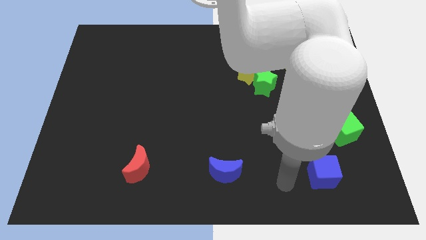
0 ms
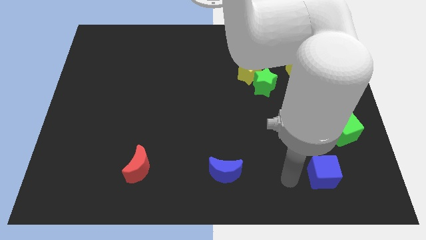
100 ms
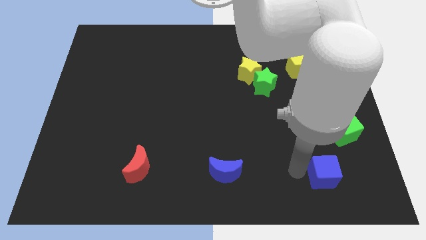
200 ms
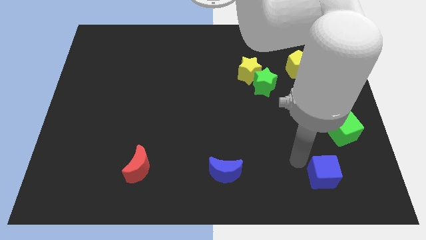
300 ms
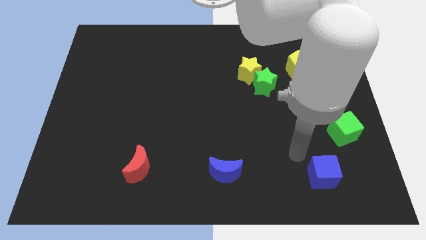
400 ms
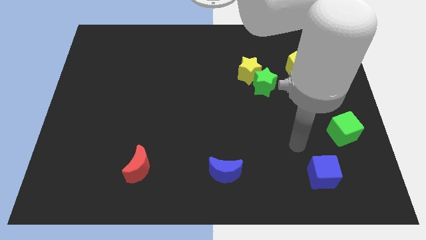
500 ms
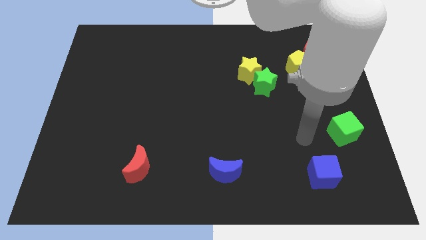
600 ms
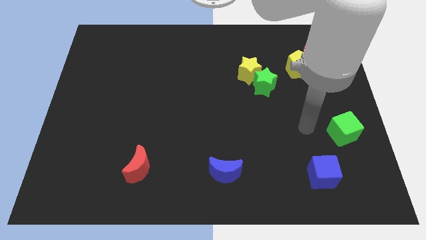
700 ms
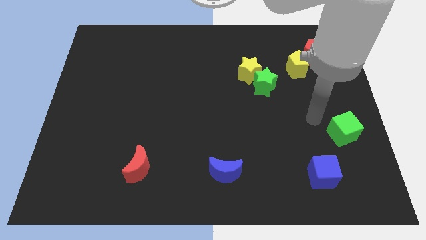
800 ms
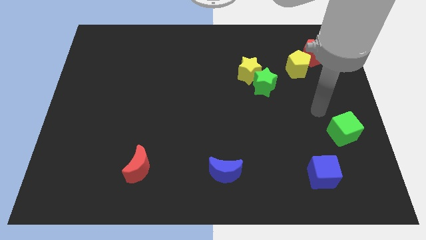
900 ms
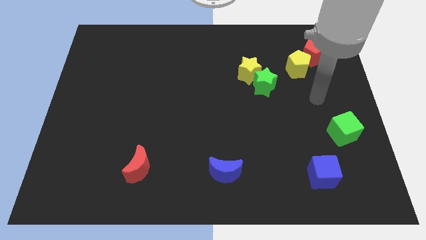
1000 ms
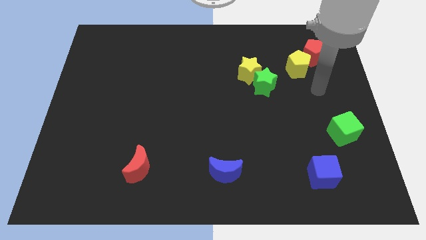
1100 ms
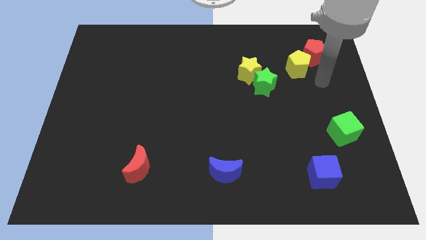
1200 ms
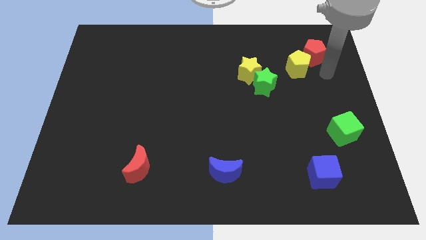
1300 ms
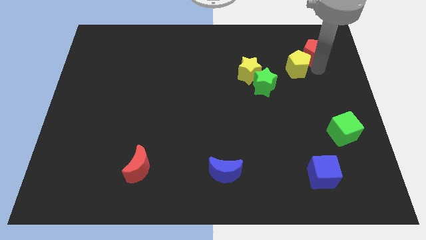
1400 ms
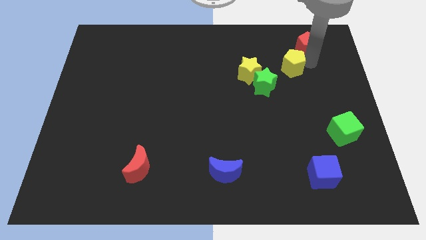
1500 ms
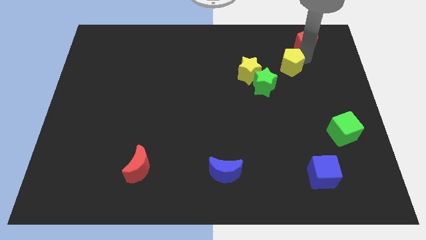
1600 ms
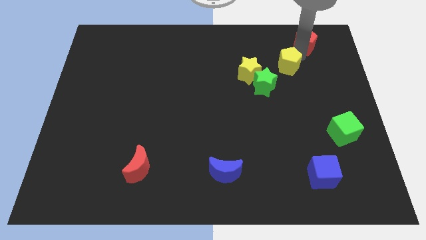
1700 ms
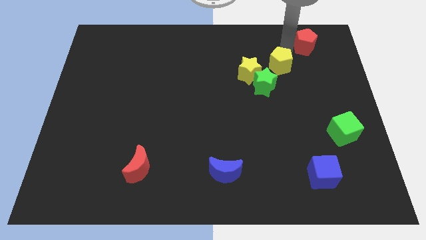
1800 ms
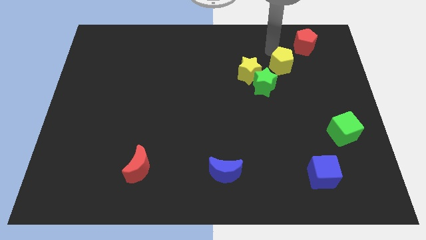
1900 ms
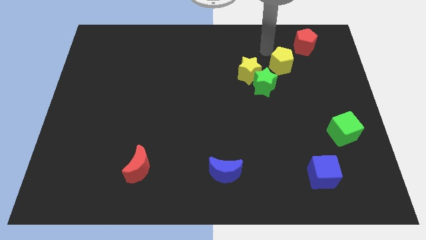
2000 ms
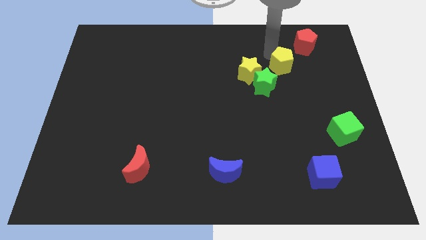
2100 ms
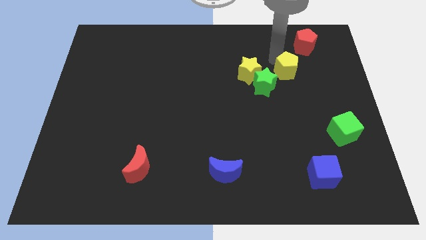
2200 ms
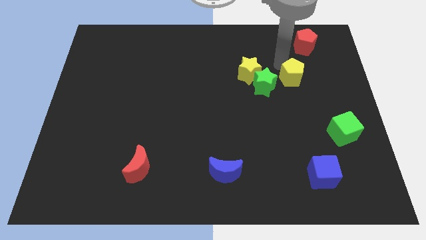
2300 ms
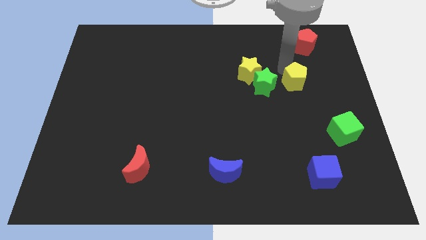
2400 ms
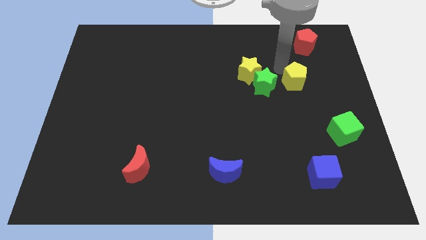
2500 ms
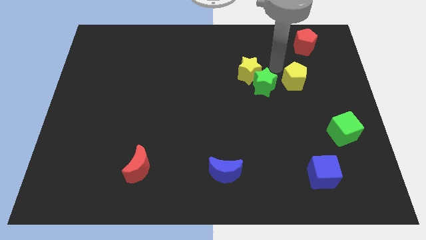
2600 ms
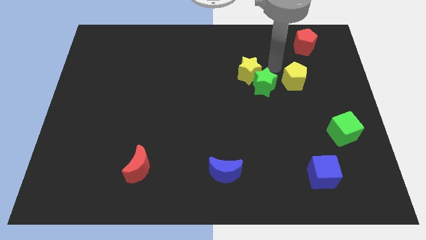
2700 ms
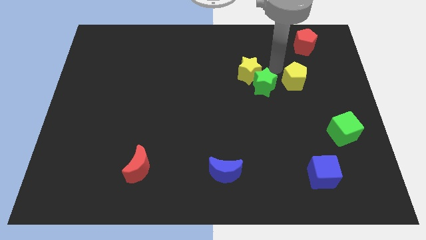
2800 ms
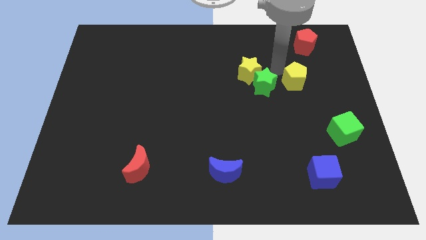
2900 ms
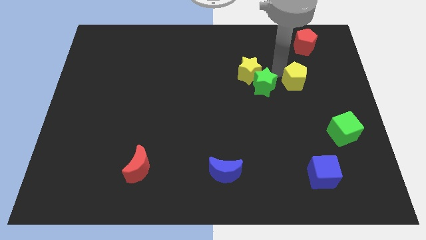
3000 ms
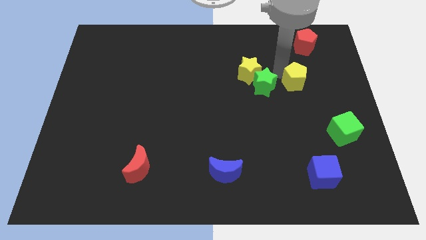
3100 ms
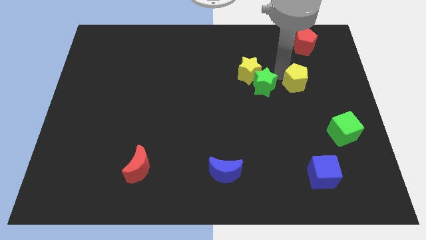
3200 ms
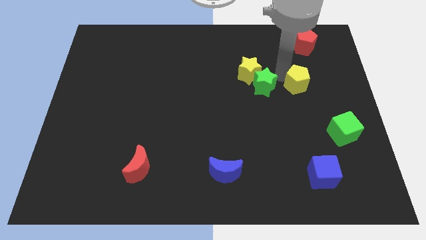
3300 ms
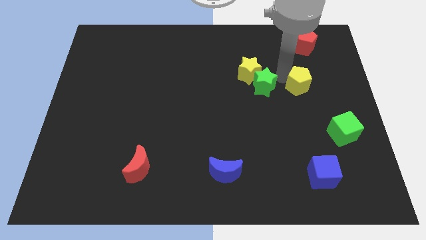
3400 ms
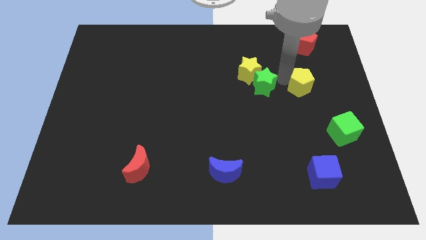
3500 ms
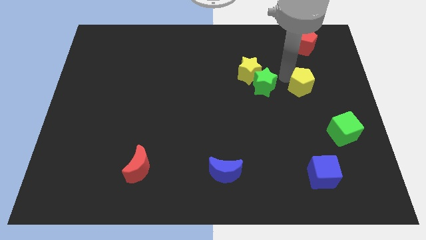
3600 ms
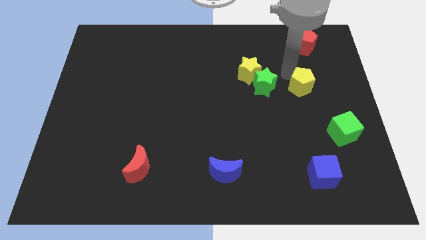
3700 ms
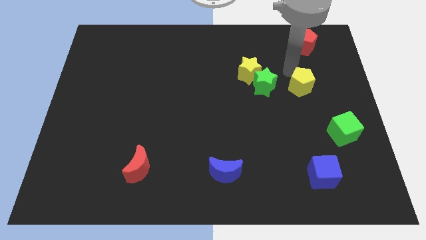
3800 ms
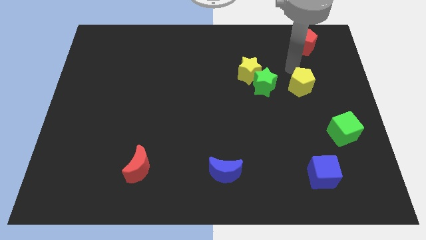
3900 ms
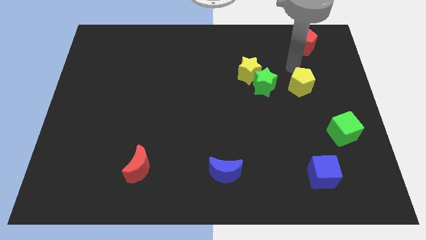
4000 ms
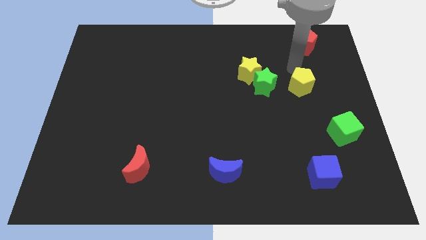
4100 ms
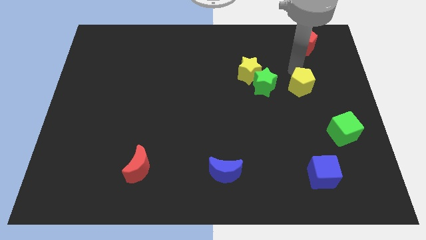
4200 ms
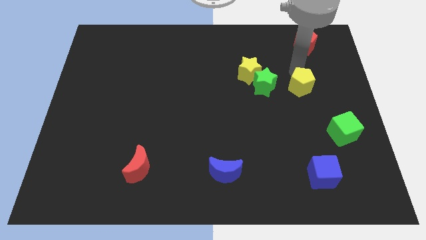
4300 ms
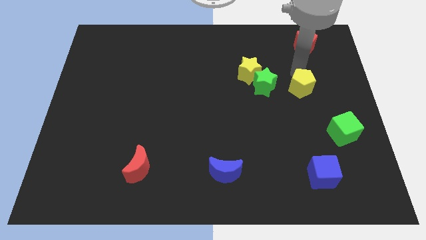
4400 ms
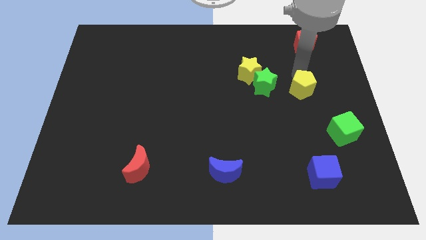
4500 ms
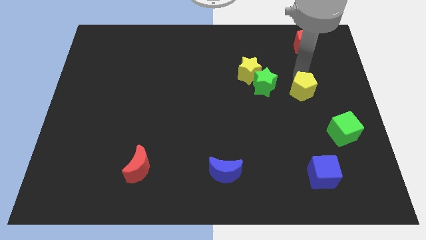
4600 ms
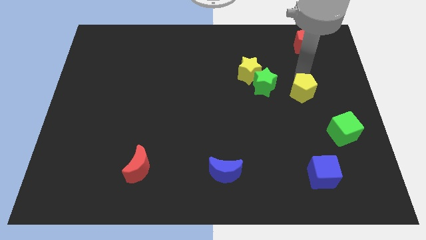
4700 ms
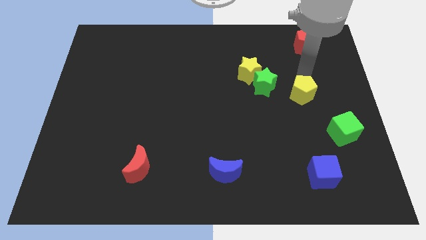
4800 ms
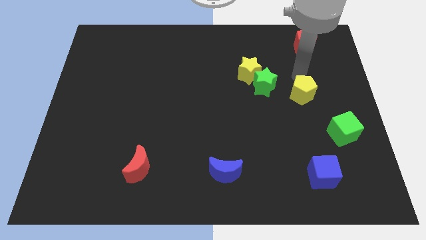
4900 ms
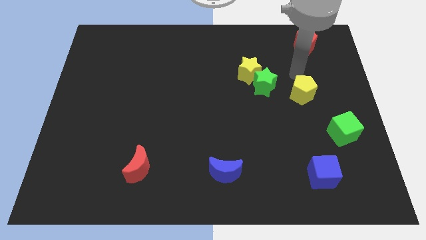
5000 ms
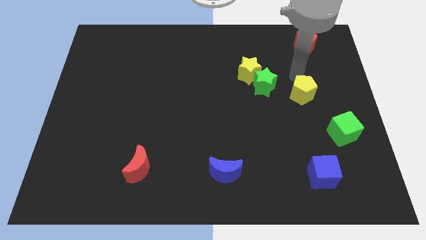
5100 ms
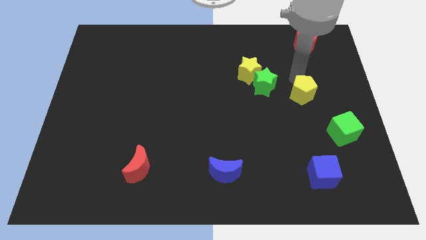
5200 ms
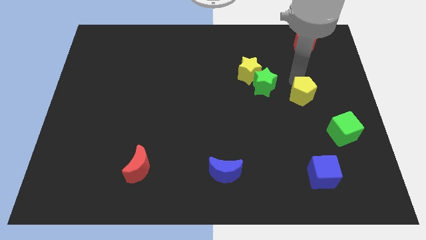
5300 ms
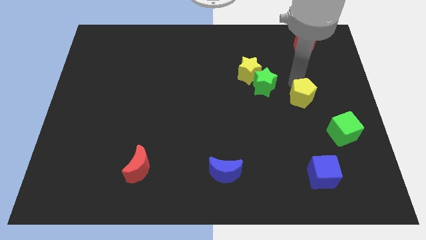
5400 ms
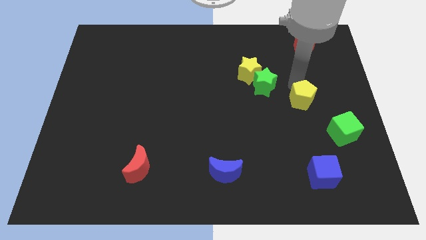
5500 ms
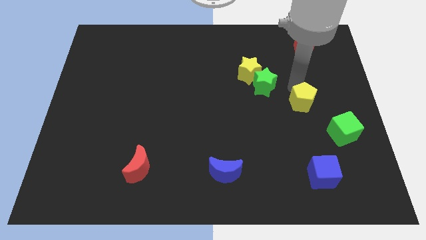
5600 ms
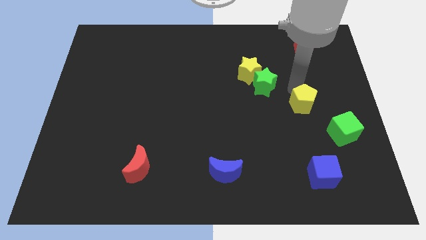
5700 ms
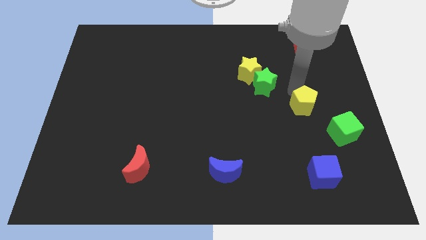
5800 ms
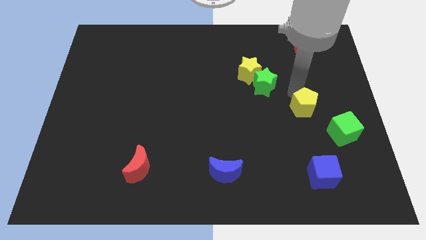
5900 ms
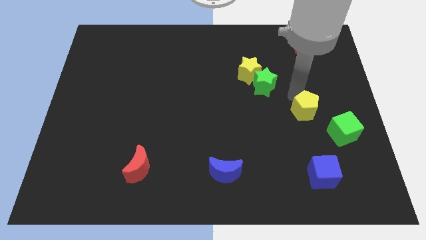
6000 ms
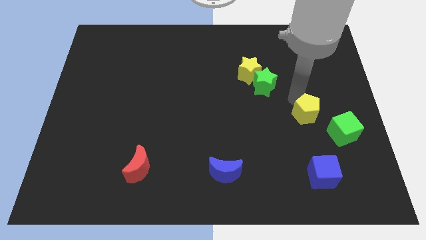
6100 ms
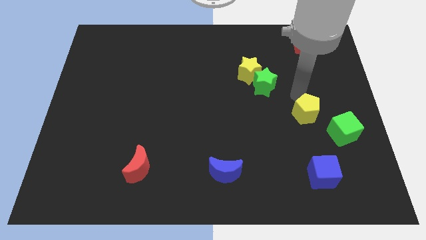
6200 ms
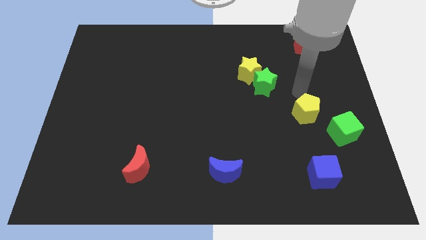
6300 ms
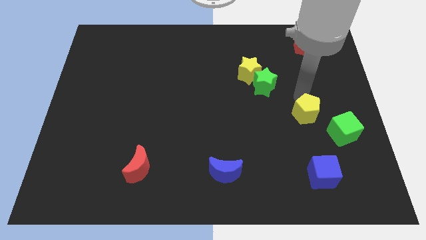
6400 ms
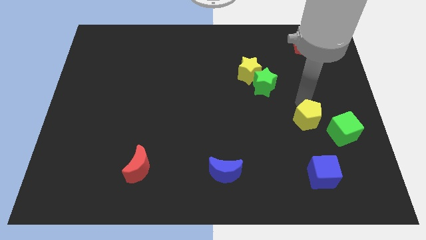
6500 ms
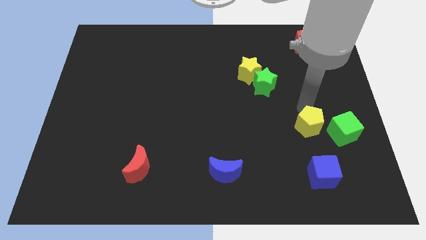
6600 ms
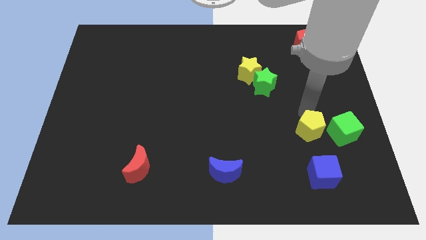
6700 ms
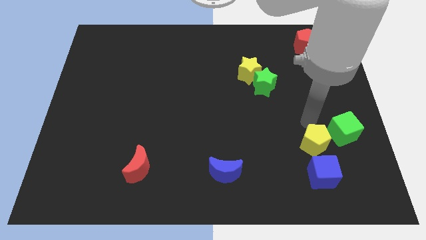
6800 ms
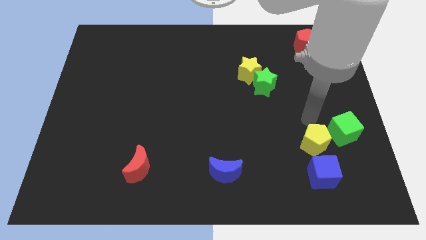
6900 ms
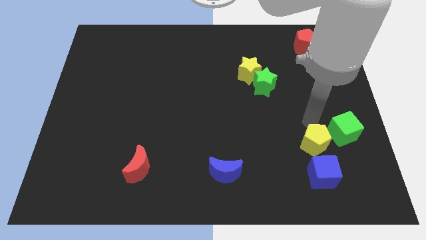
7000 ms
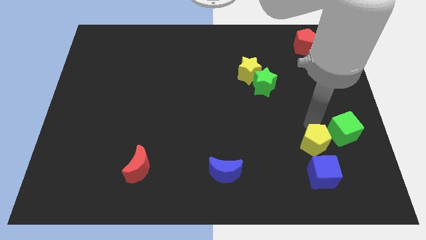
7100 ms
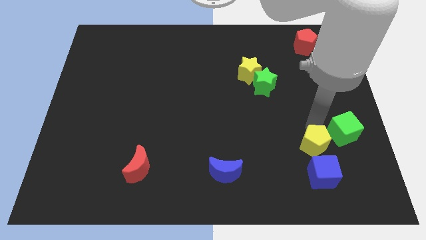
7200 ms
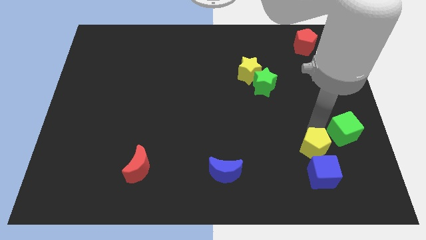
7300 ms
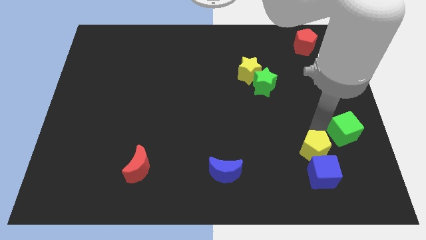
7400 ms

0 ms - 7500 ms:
push the yellow pentagon next to the blue cube
